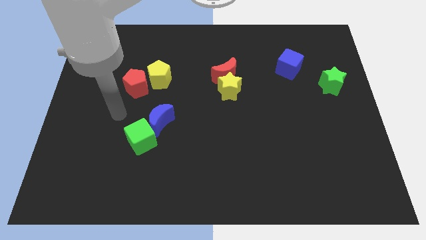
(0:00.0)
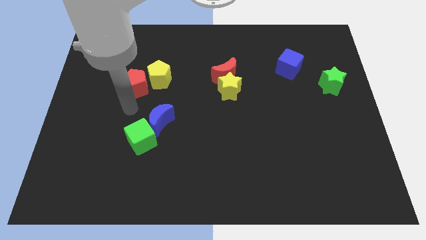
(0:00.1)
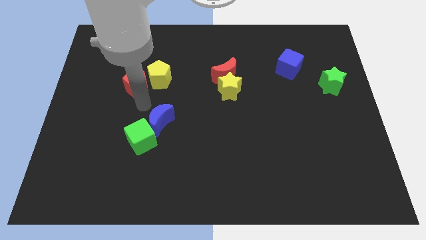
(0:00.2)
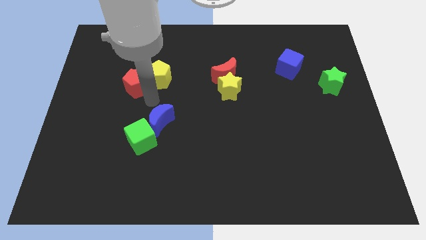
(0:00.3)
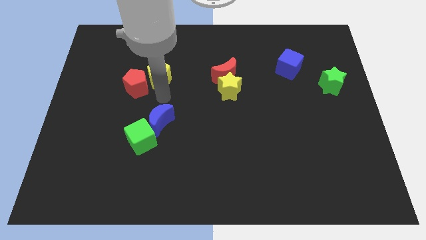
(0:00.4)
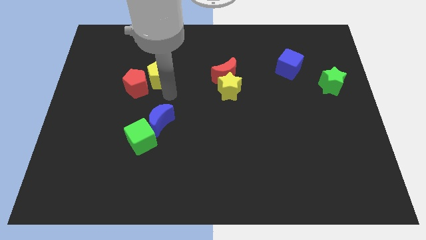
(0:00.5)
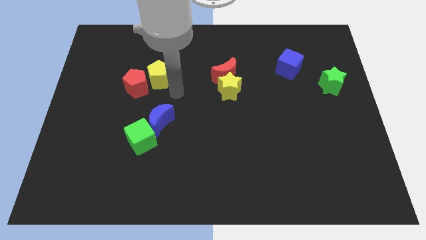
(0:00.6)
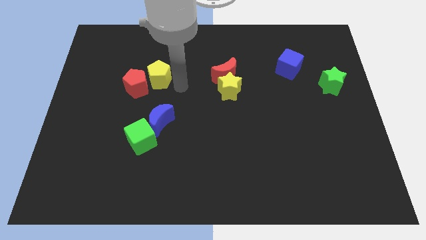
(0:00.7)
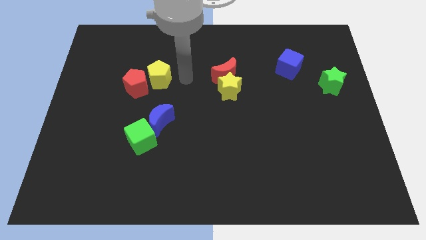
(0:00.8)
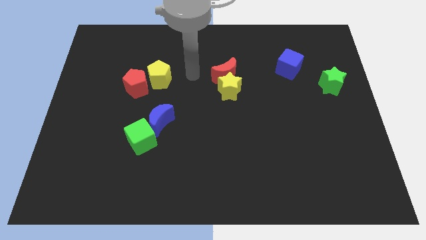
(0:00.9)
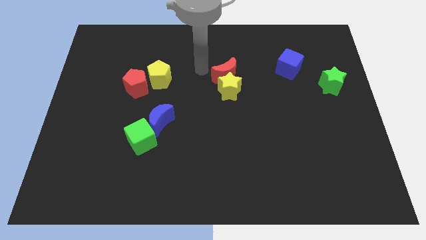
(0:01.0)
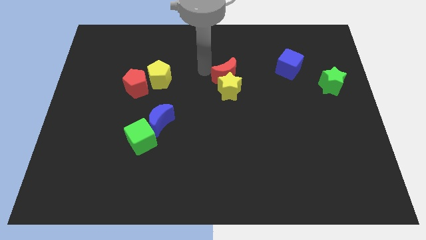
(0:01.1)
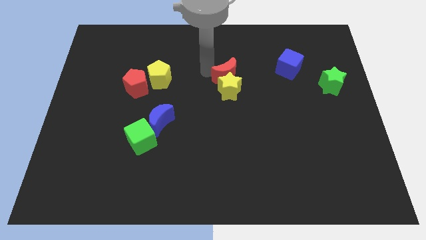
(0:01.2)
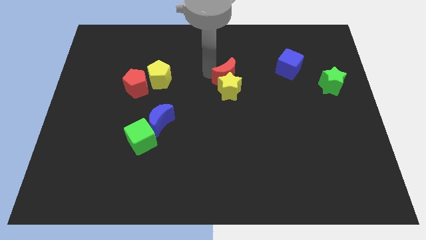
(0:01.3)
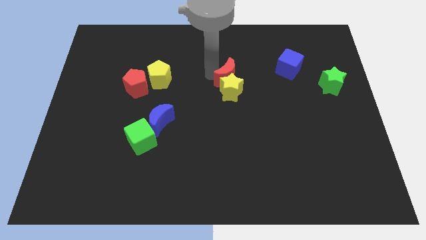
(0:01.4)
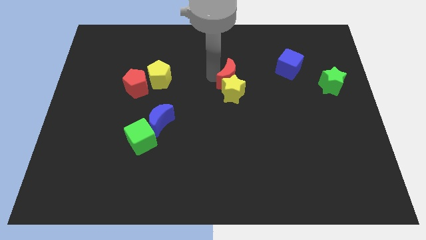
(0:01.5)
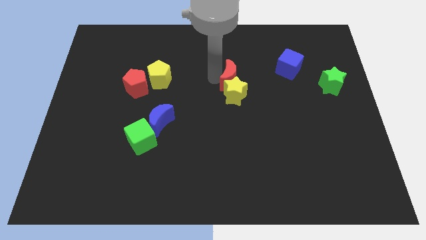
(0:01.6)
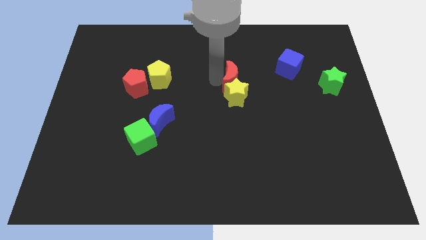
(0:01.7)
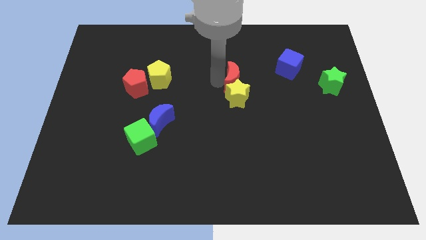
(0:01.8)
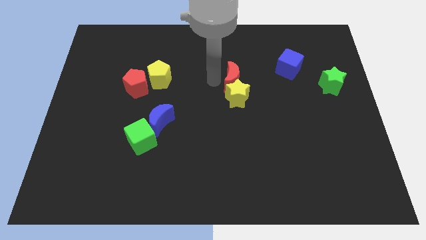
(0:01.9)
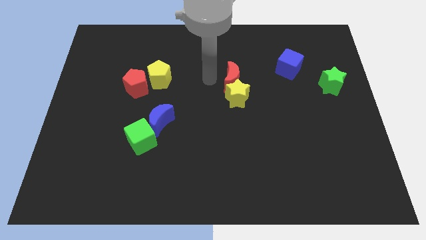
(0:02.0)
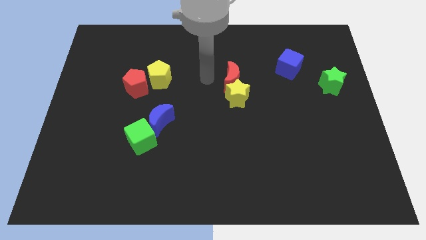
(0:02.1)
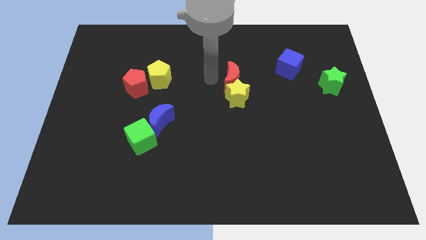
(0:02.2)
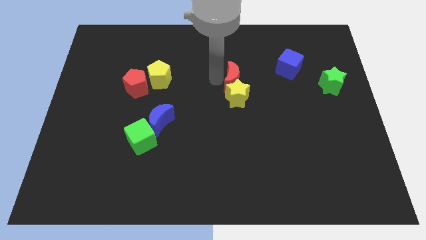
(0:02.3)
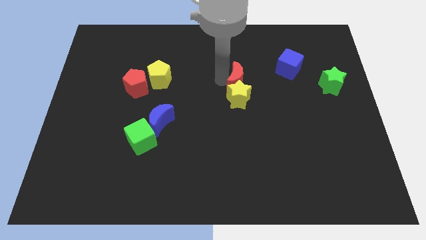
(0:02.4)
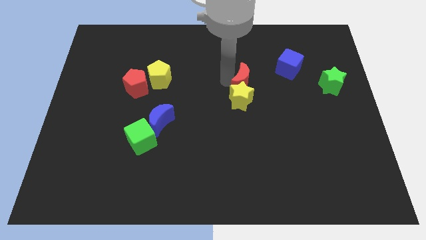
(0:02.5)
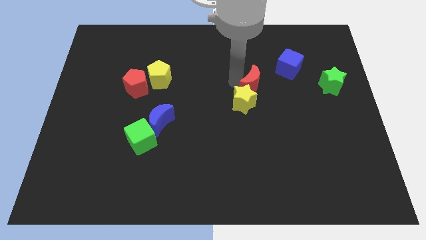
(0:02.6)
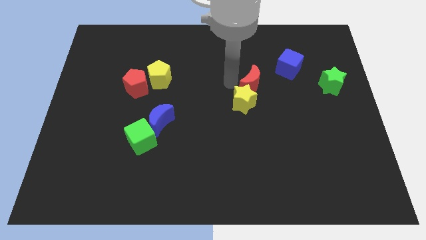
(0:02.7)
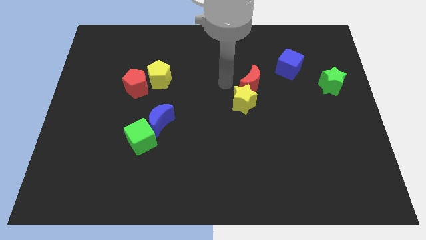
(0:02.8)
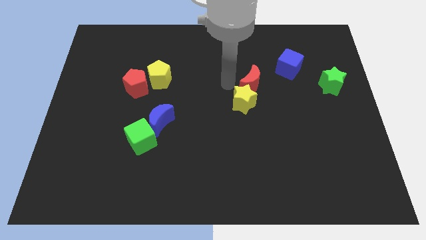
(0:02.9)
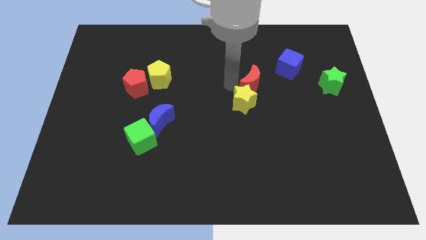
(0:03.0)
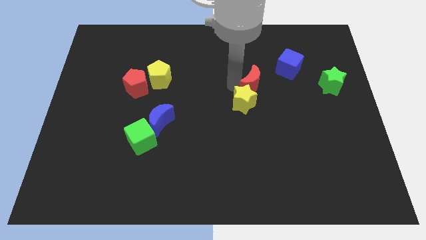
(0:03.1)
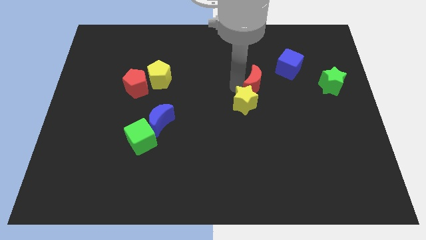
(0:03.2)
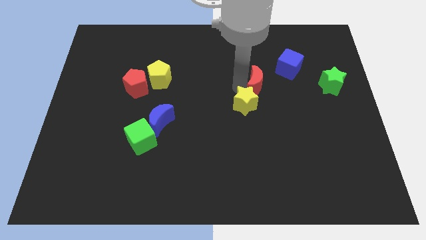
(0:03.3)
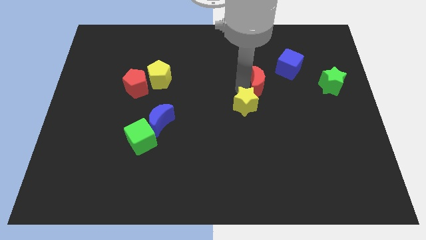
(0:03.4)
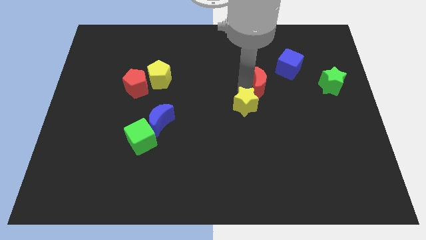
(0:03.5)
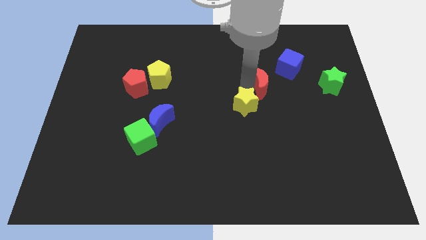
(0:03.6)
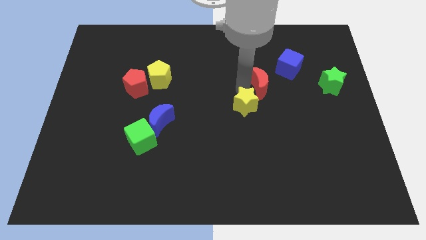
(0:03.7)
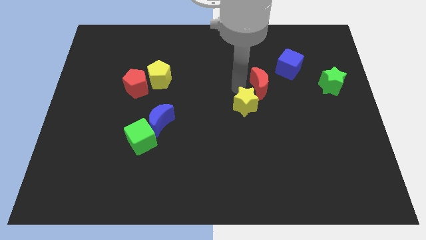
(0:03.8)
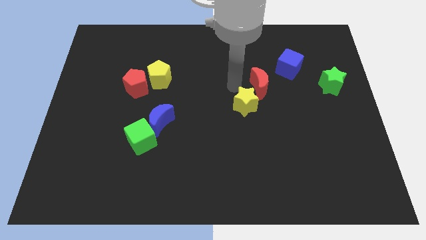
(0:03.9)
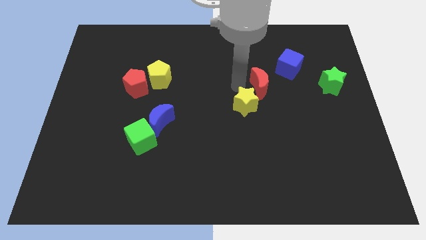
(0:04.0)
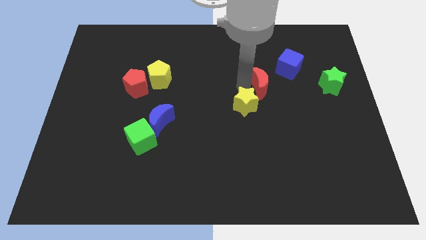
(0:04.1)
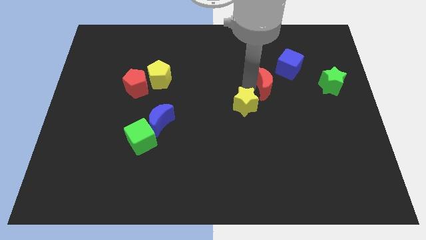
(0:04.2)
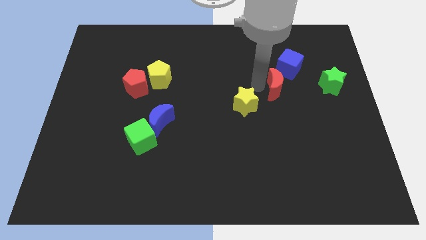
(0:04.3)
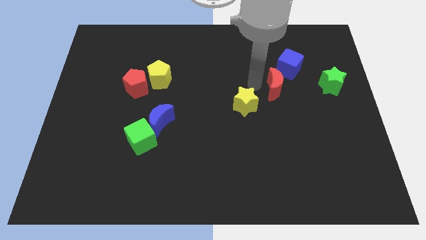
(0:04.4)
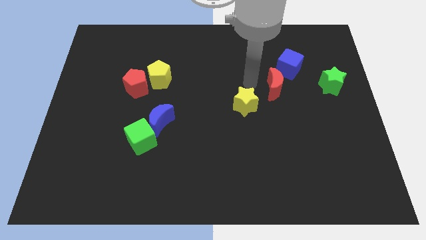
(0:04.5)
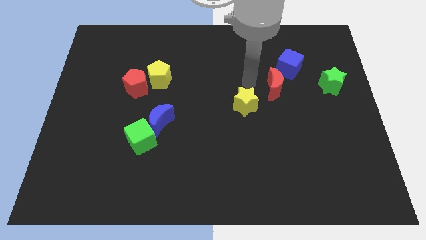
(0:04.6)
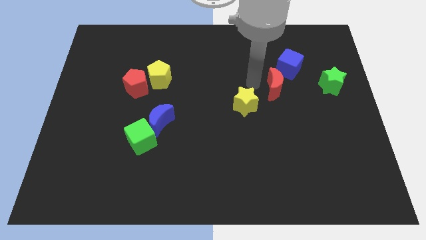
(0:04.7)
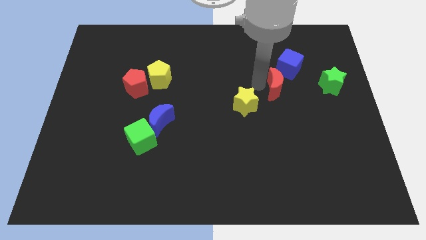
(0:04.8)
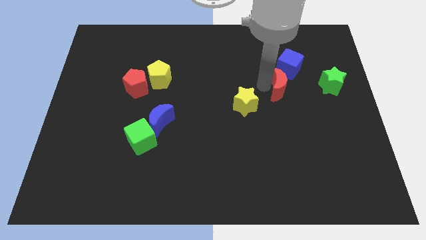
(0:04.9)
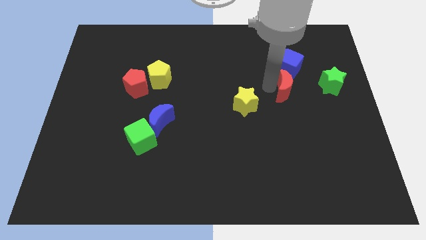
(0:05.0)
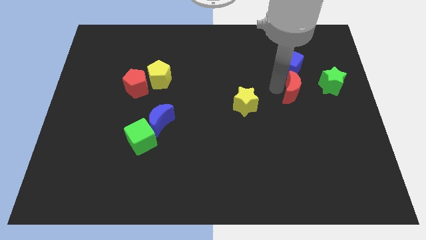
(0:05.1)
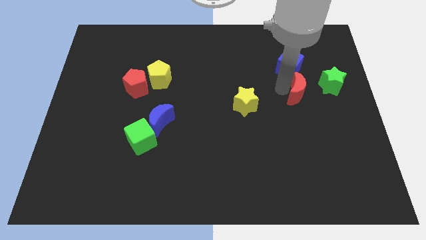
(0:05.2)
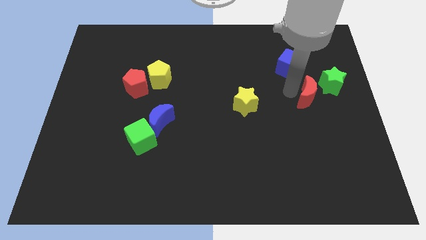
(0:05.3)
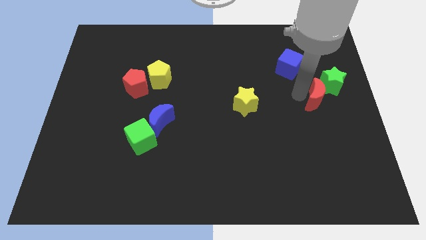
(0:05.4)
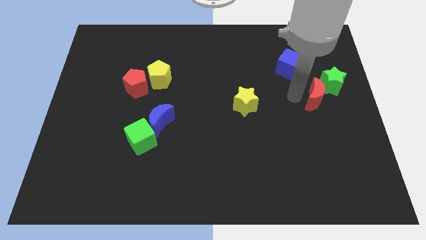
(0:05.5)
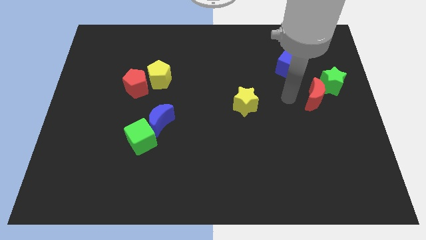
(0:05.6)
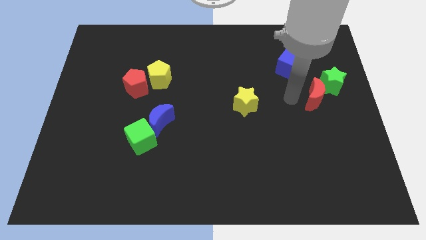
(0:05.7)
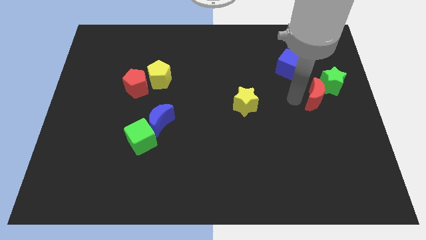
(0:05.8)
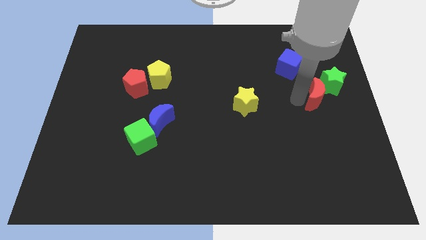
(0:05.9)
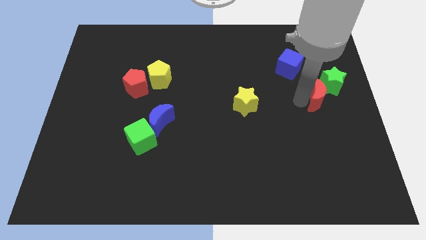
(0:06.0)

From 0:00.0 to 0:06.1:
slide the red moon to the right side

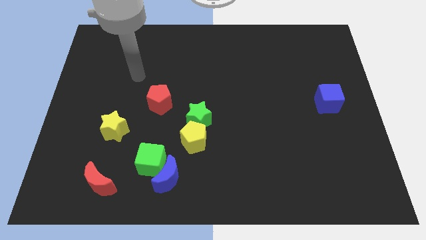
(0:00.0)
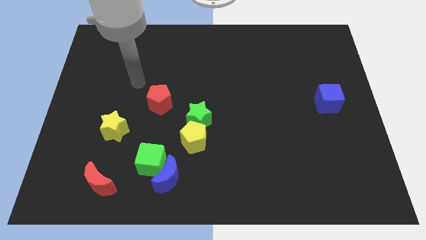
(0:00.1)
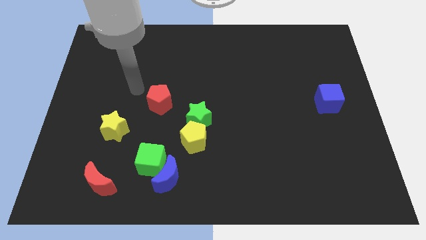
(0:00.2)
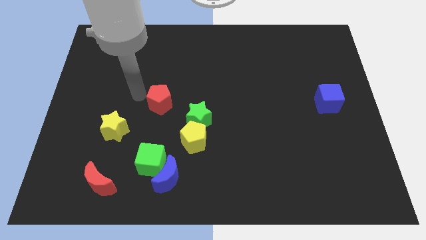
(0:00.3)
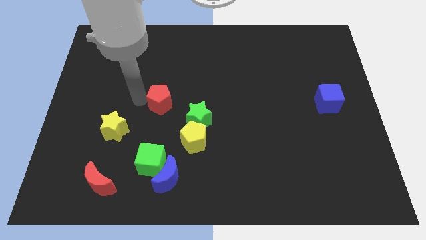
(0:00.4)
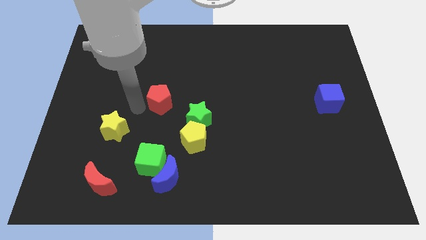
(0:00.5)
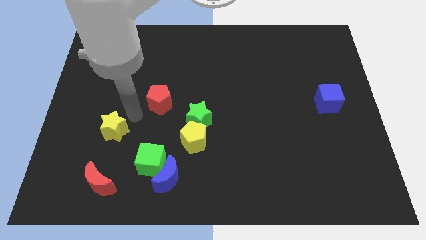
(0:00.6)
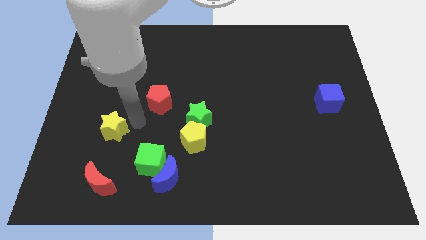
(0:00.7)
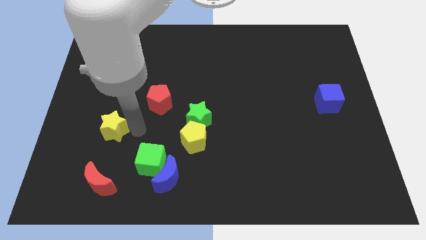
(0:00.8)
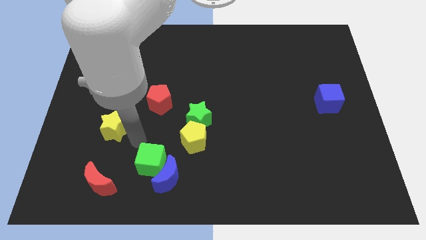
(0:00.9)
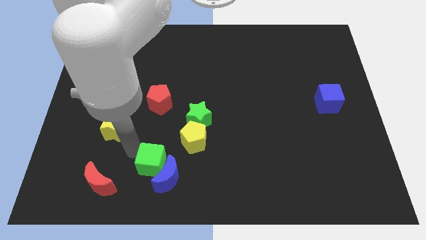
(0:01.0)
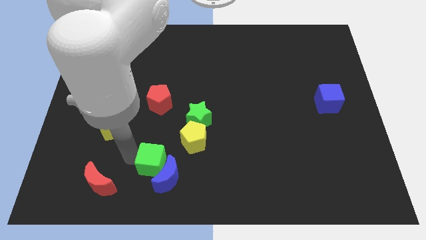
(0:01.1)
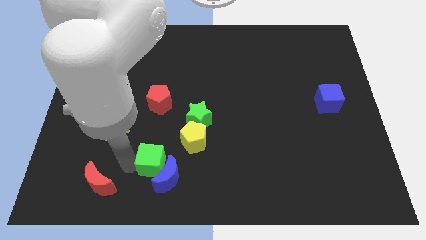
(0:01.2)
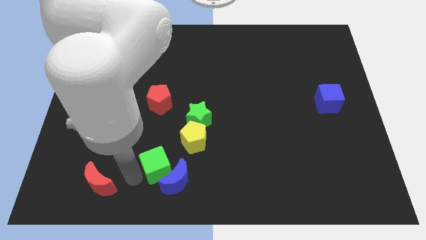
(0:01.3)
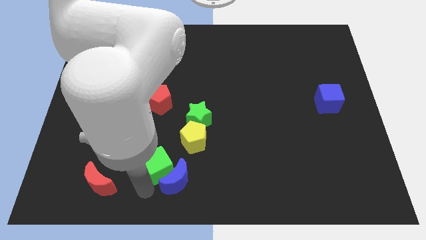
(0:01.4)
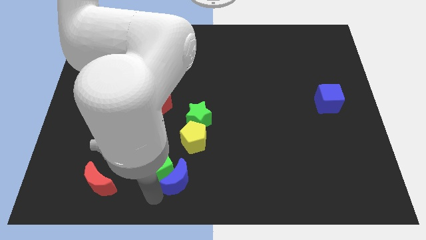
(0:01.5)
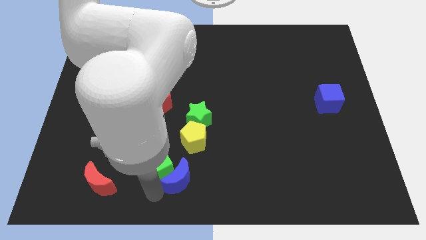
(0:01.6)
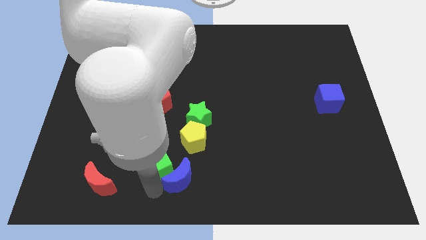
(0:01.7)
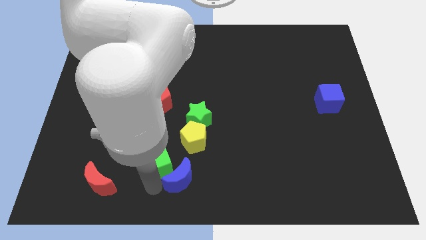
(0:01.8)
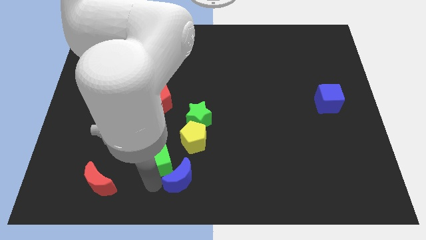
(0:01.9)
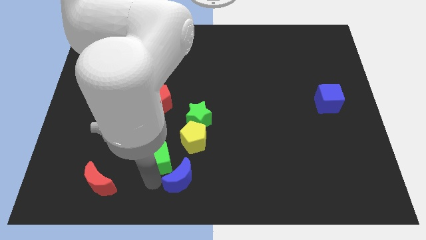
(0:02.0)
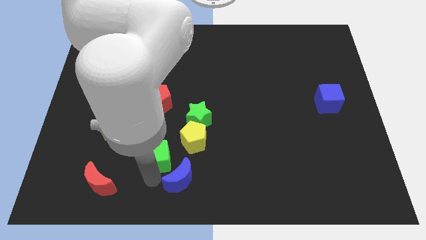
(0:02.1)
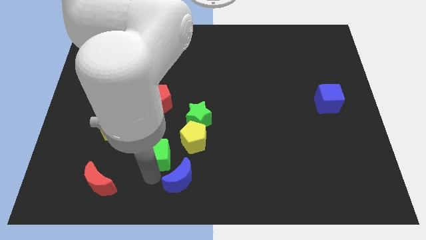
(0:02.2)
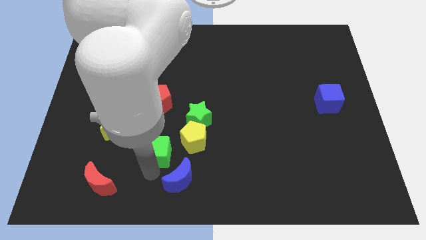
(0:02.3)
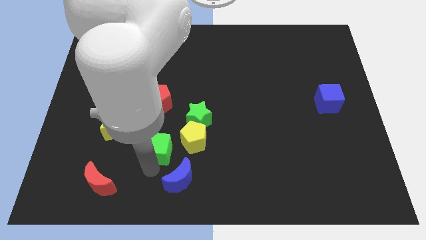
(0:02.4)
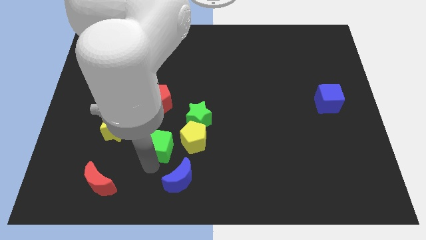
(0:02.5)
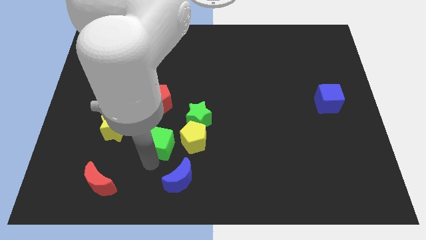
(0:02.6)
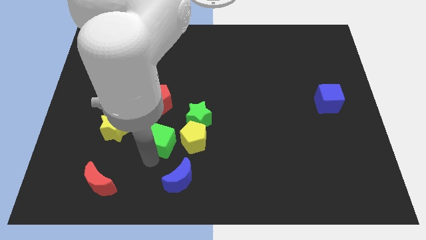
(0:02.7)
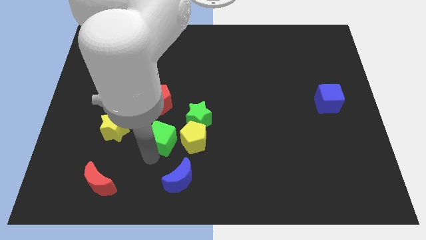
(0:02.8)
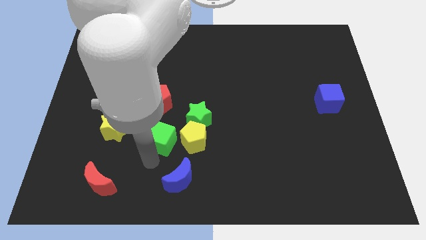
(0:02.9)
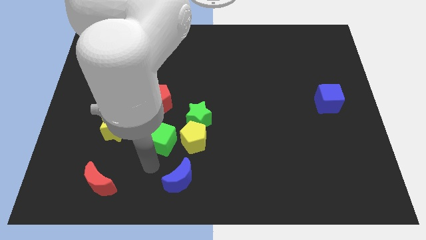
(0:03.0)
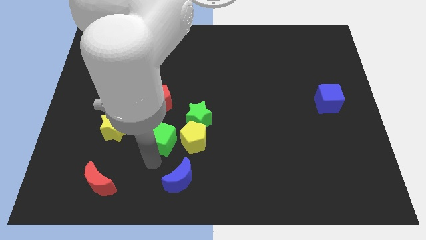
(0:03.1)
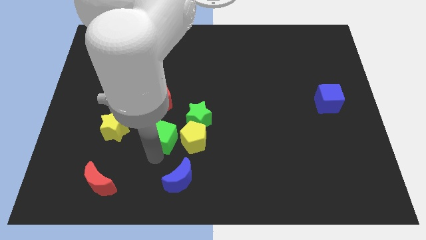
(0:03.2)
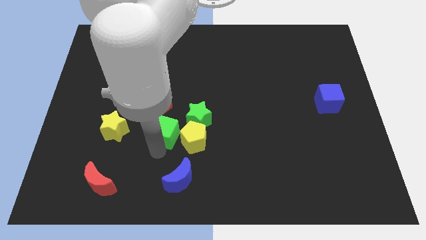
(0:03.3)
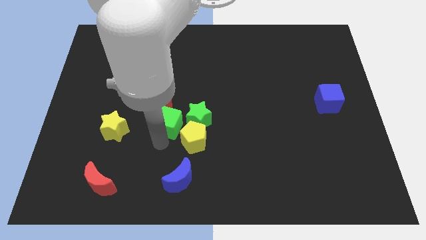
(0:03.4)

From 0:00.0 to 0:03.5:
slide the green cube to the middle of the board
